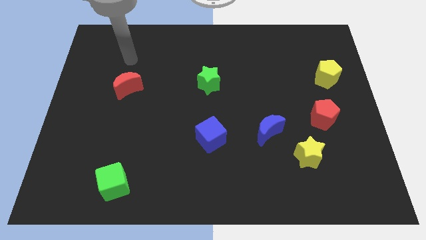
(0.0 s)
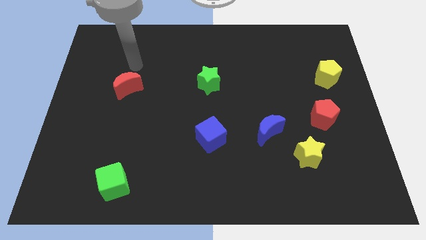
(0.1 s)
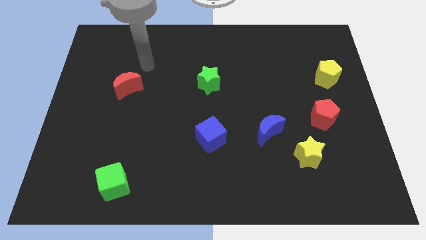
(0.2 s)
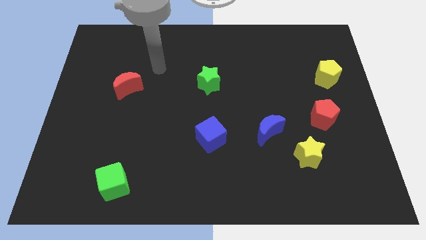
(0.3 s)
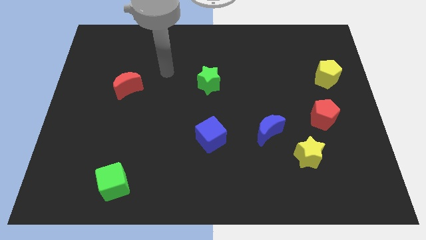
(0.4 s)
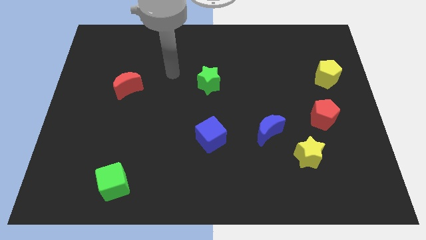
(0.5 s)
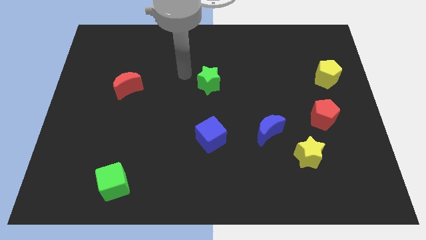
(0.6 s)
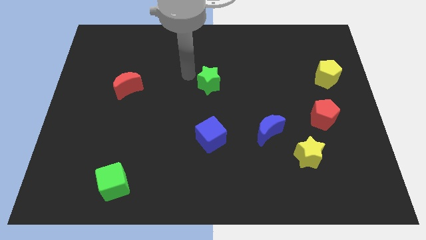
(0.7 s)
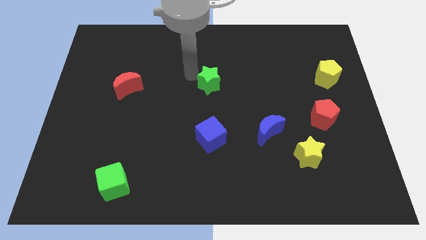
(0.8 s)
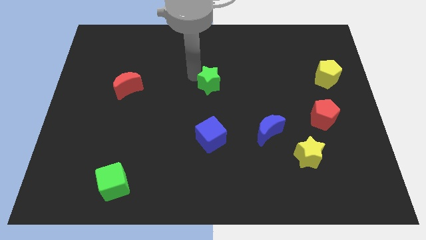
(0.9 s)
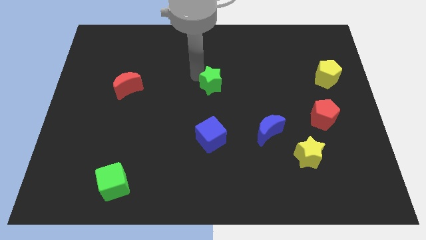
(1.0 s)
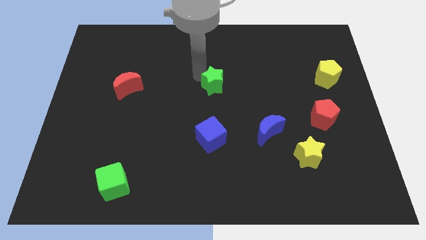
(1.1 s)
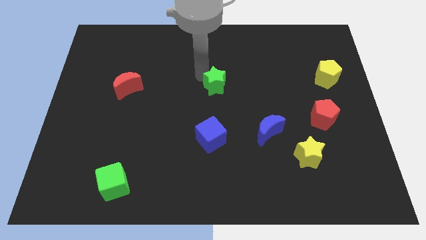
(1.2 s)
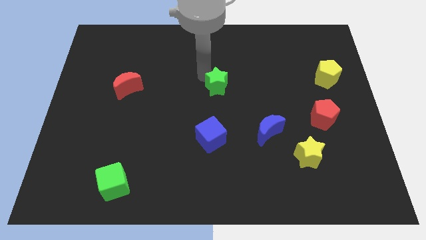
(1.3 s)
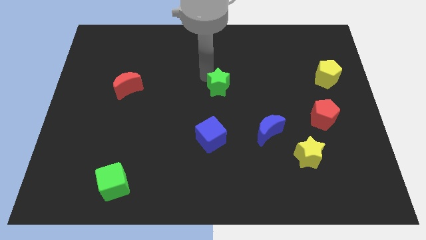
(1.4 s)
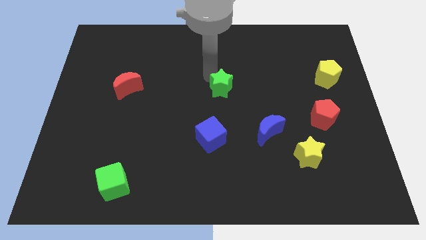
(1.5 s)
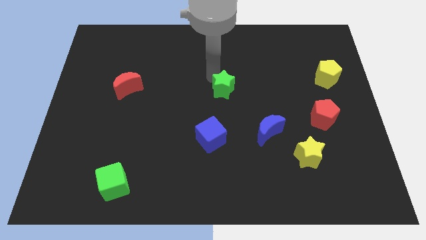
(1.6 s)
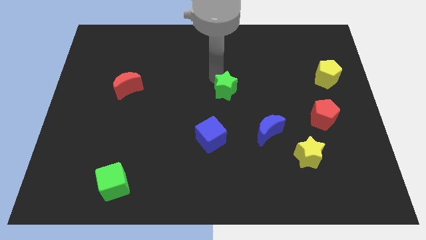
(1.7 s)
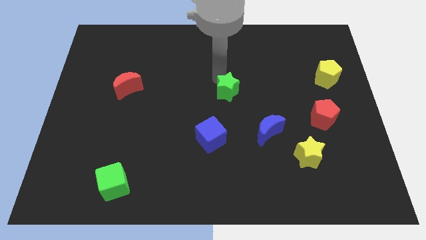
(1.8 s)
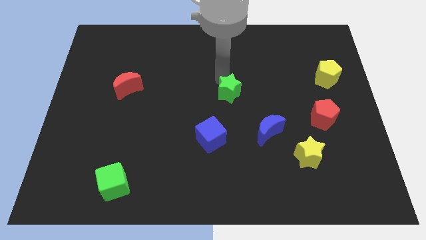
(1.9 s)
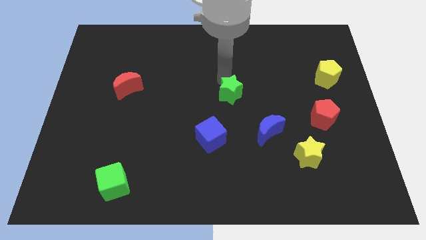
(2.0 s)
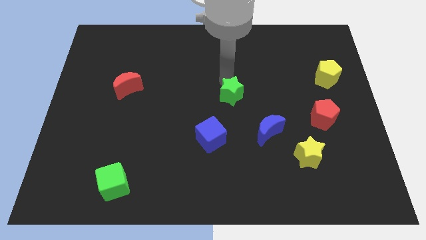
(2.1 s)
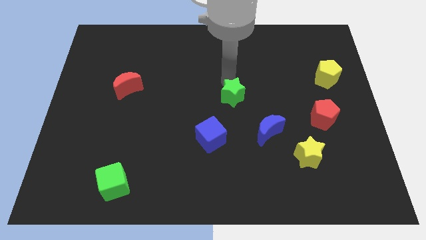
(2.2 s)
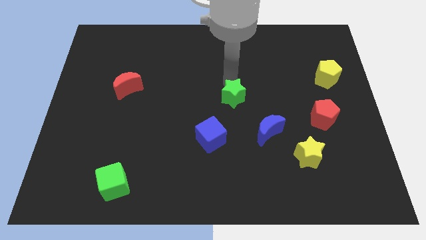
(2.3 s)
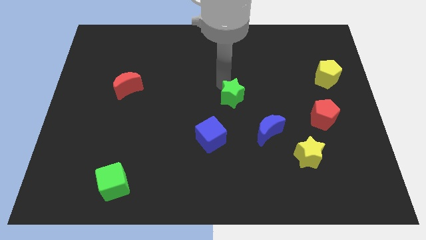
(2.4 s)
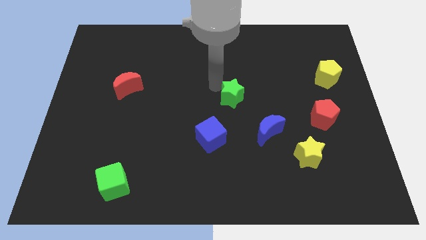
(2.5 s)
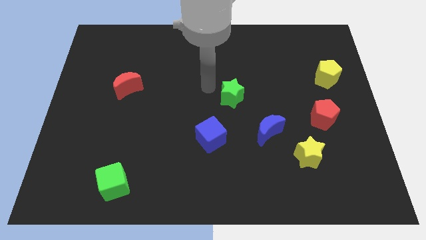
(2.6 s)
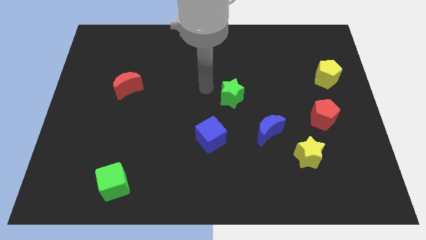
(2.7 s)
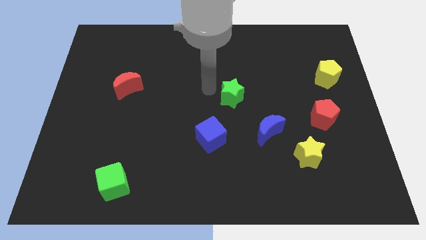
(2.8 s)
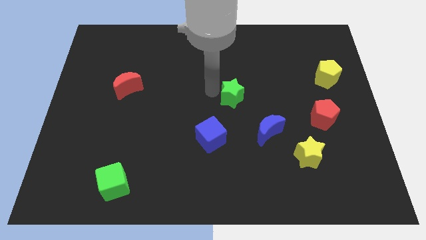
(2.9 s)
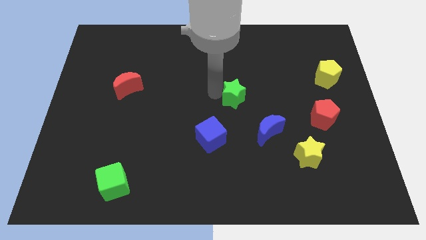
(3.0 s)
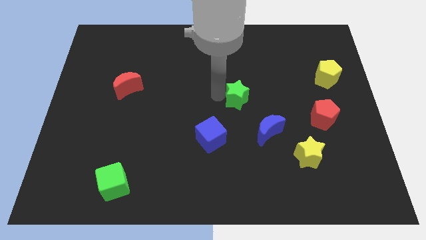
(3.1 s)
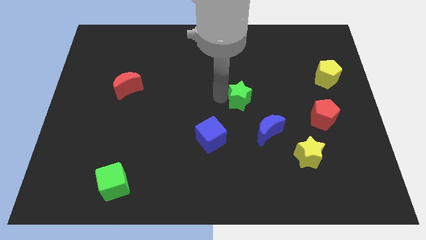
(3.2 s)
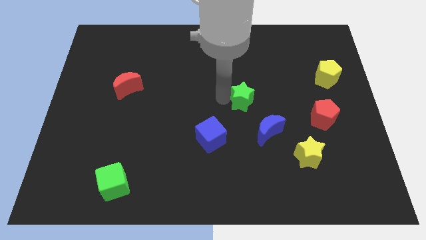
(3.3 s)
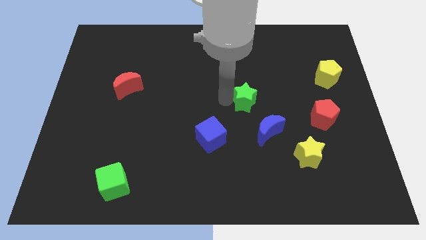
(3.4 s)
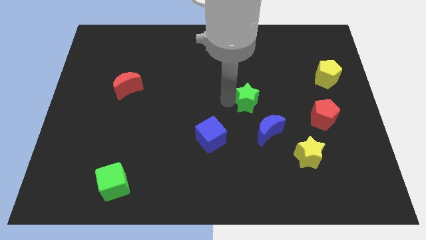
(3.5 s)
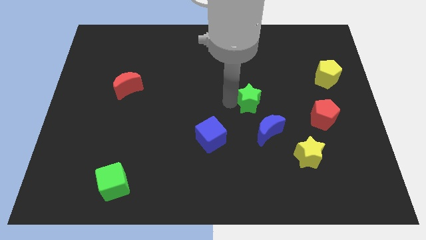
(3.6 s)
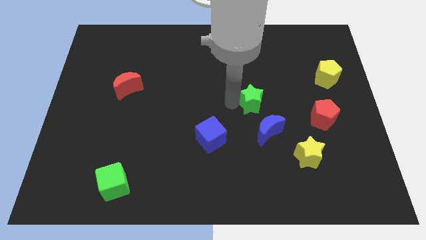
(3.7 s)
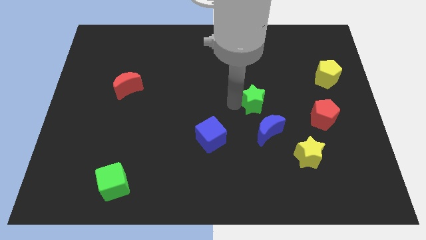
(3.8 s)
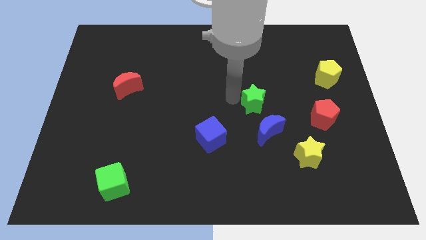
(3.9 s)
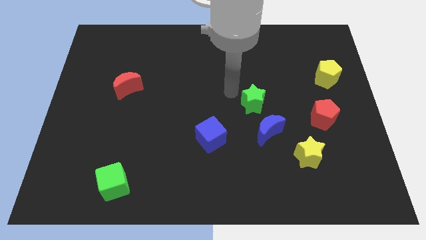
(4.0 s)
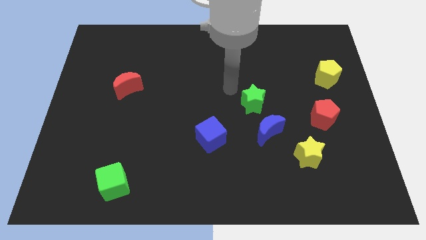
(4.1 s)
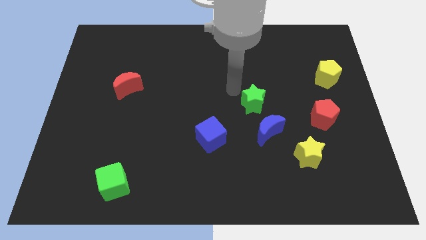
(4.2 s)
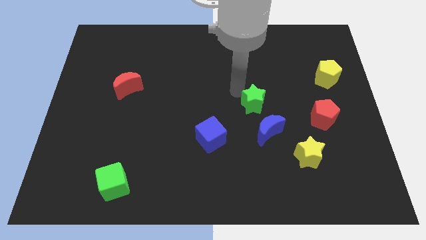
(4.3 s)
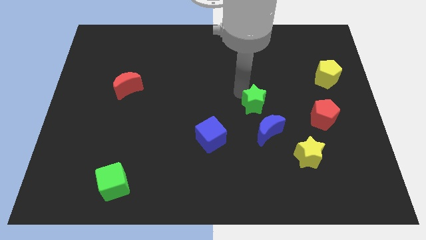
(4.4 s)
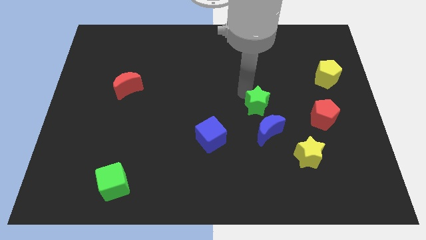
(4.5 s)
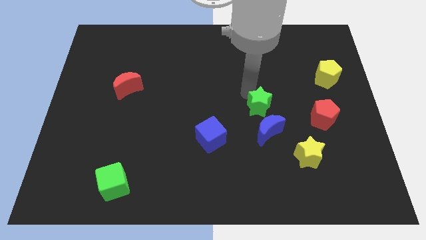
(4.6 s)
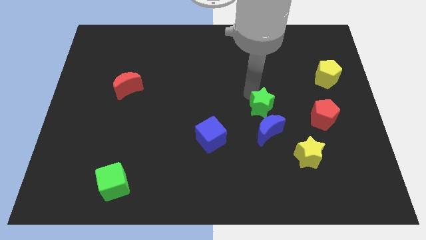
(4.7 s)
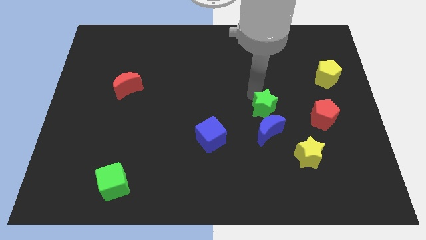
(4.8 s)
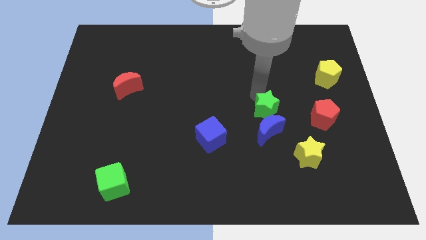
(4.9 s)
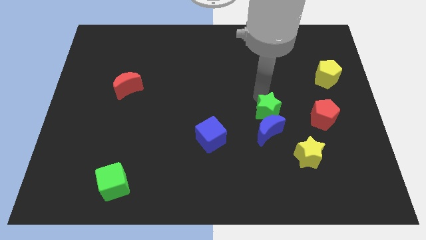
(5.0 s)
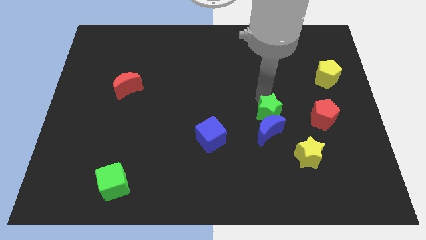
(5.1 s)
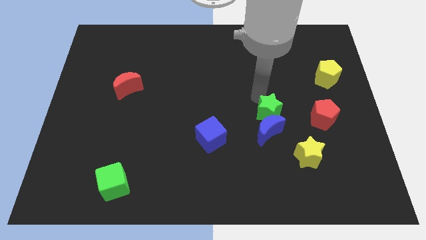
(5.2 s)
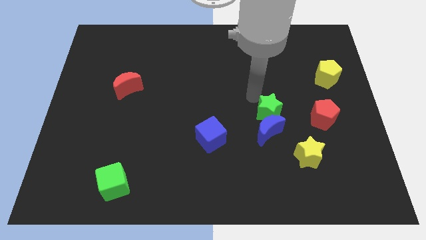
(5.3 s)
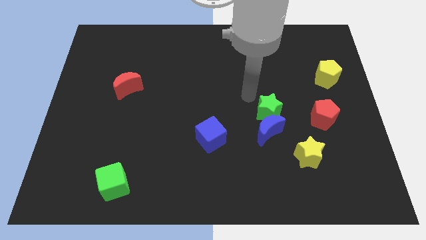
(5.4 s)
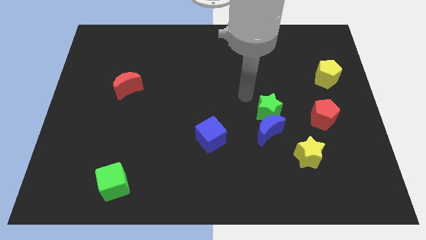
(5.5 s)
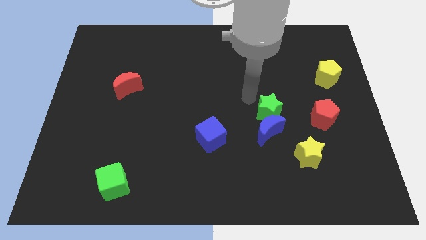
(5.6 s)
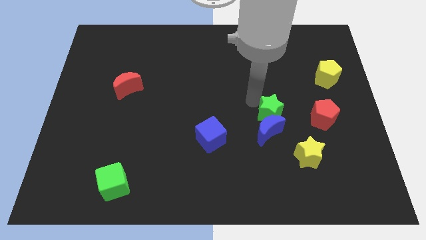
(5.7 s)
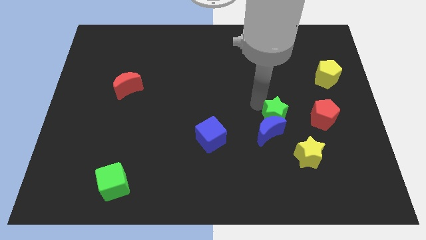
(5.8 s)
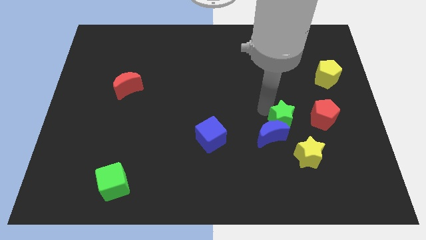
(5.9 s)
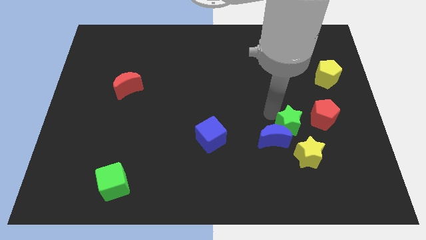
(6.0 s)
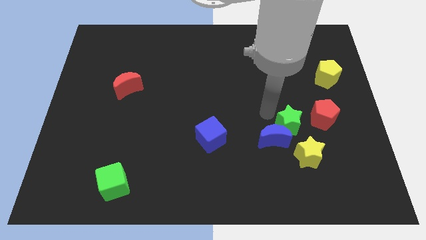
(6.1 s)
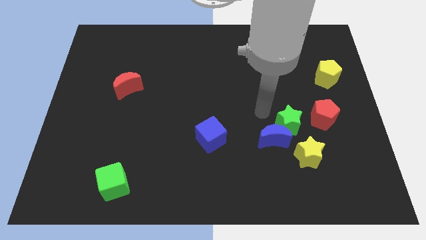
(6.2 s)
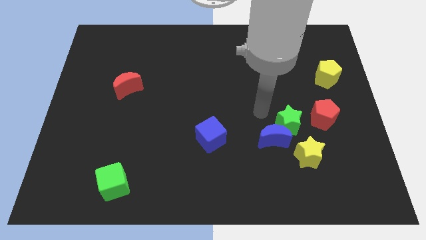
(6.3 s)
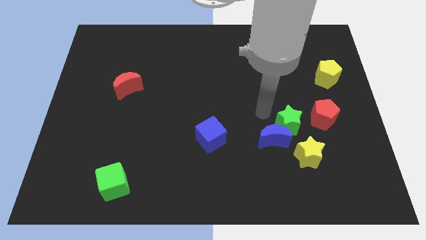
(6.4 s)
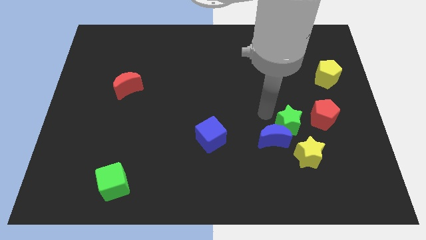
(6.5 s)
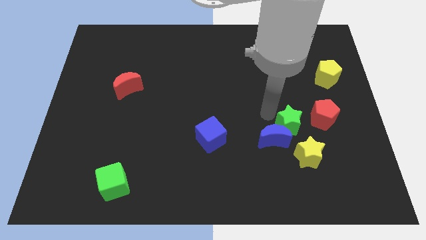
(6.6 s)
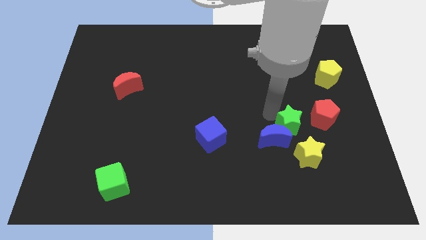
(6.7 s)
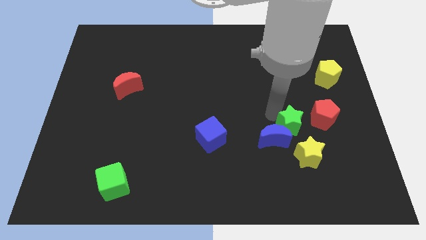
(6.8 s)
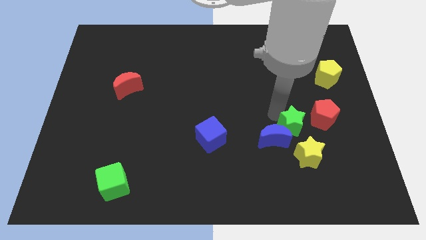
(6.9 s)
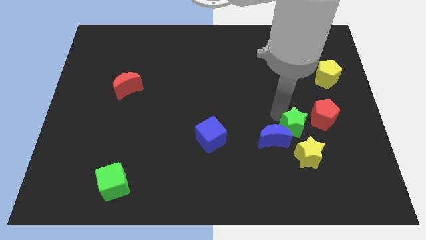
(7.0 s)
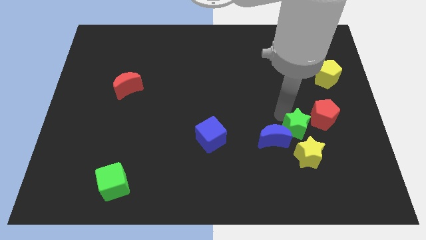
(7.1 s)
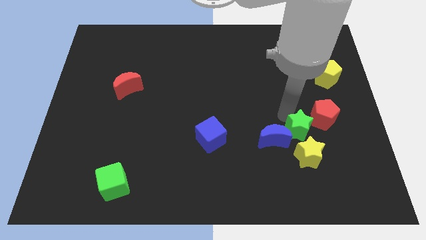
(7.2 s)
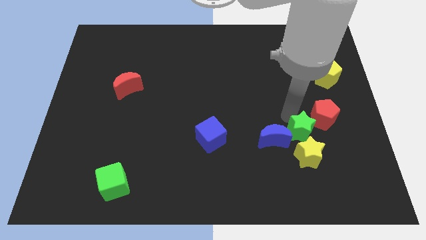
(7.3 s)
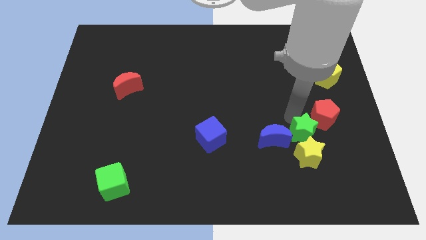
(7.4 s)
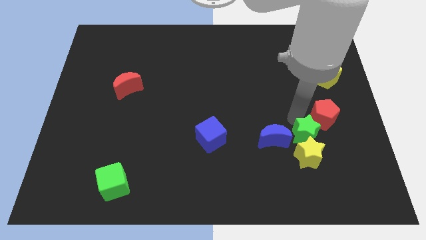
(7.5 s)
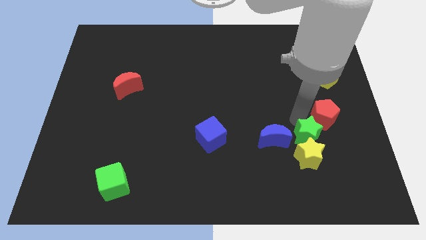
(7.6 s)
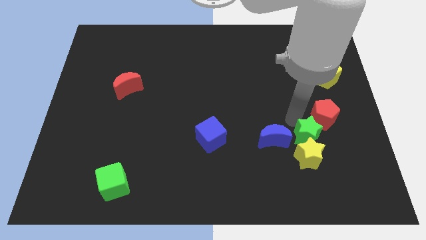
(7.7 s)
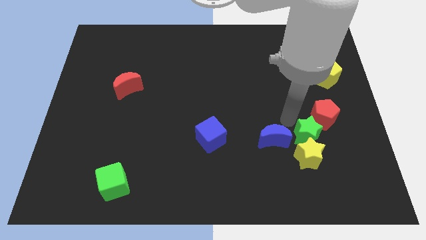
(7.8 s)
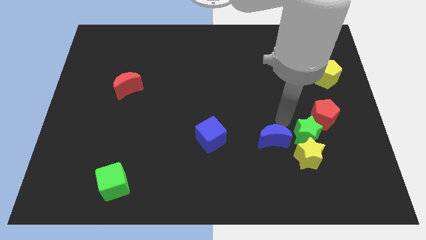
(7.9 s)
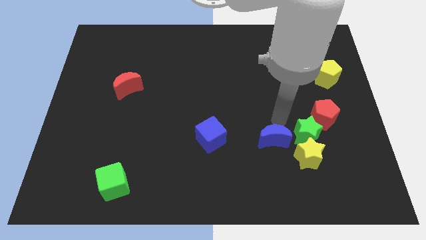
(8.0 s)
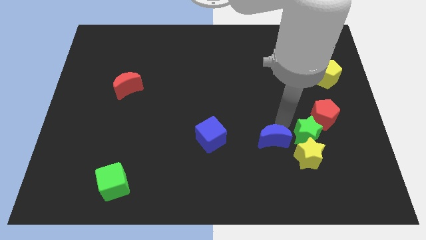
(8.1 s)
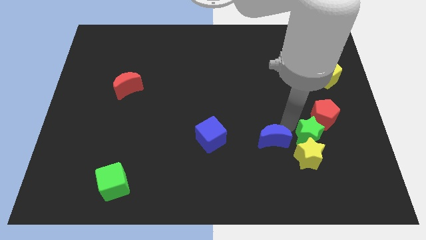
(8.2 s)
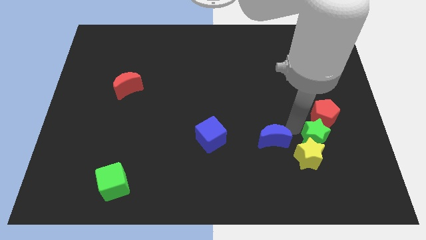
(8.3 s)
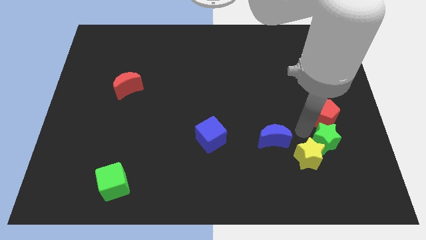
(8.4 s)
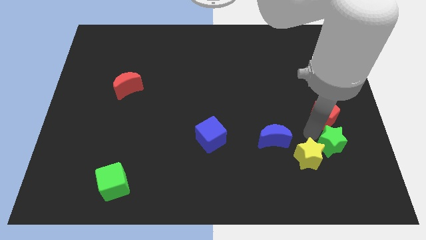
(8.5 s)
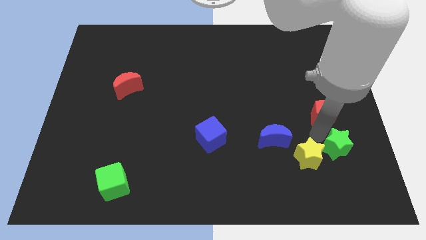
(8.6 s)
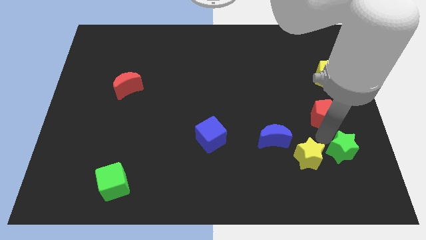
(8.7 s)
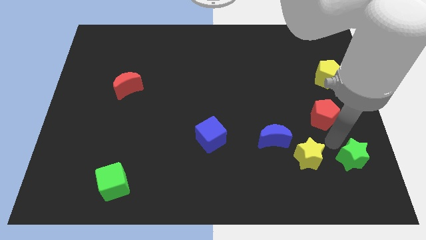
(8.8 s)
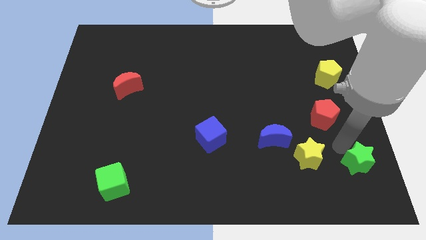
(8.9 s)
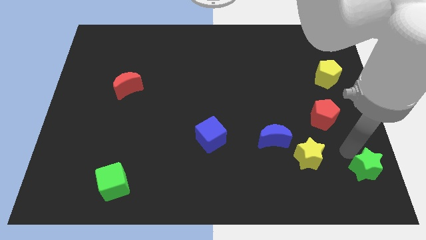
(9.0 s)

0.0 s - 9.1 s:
slide the green star to the bottom right of the board
